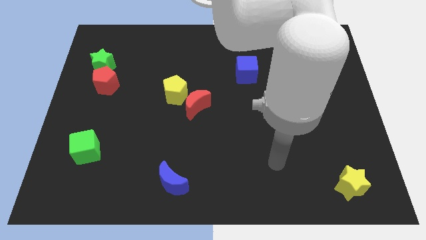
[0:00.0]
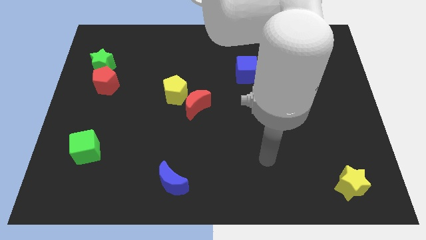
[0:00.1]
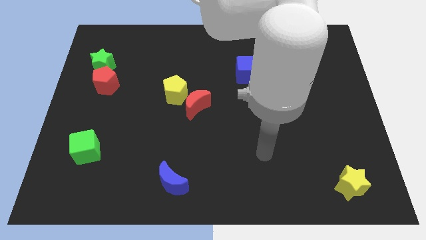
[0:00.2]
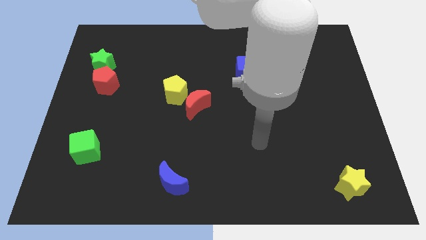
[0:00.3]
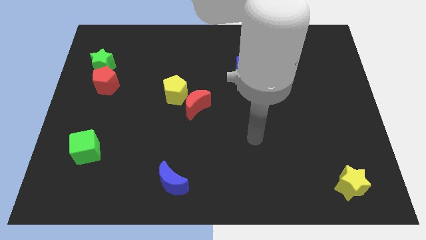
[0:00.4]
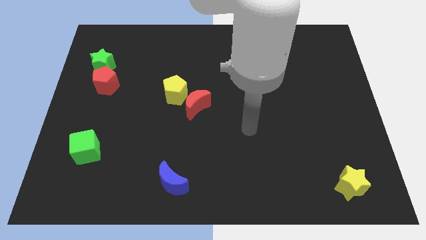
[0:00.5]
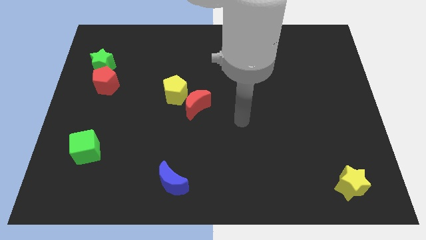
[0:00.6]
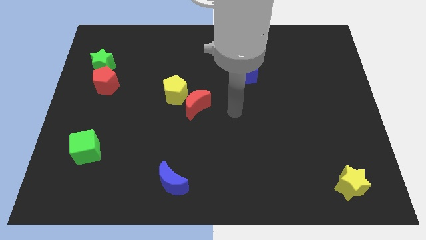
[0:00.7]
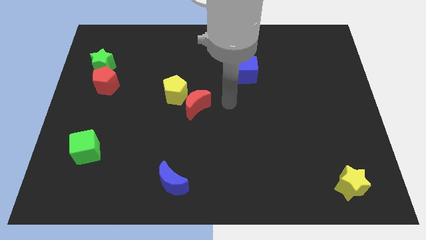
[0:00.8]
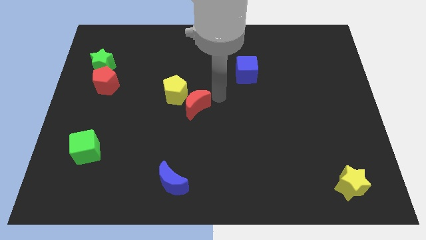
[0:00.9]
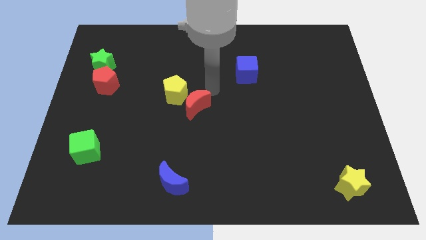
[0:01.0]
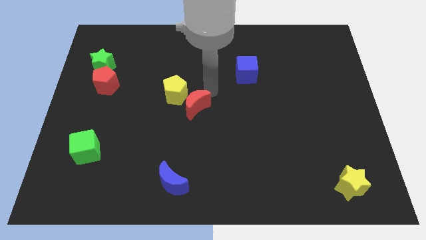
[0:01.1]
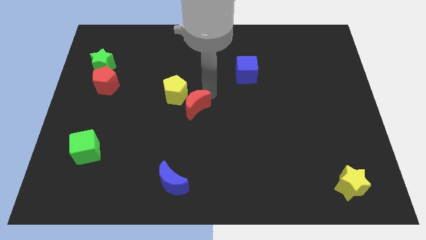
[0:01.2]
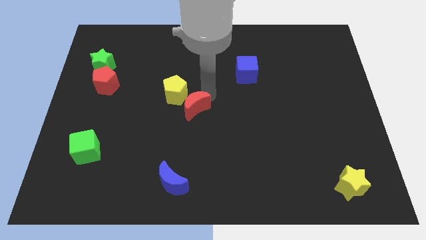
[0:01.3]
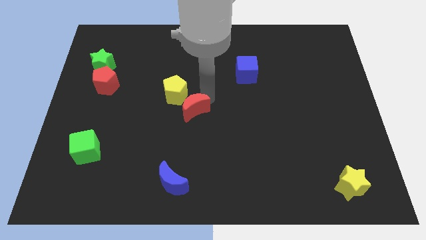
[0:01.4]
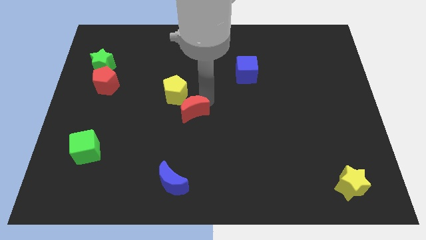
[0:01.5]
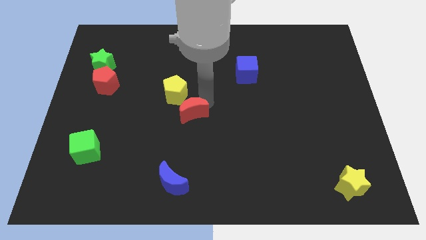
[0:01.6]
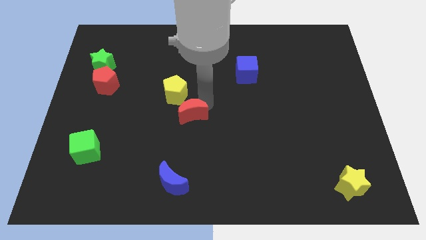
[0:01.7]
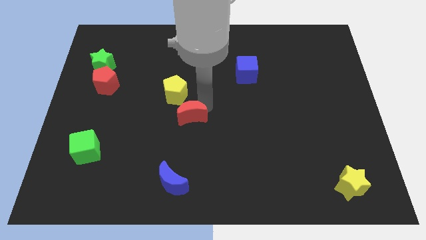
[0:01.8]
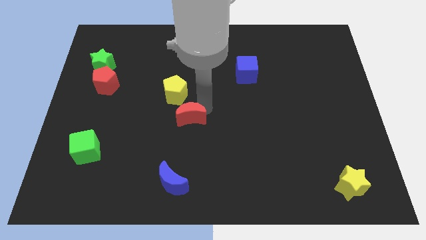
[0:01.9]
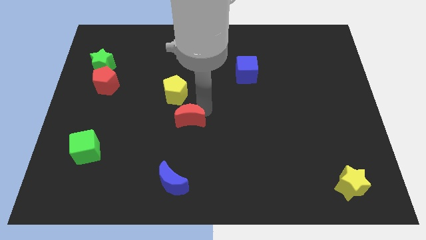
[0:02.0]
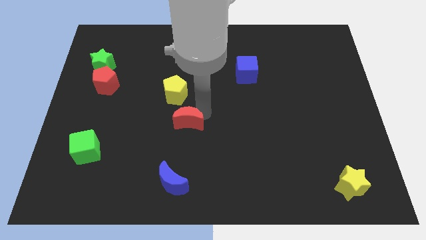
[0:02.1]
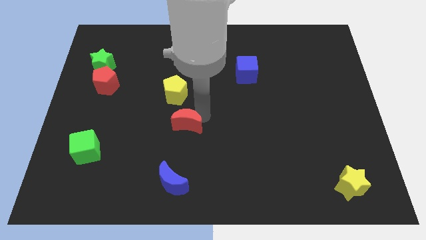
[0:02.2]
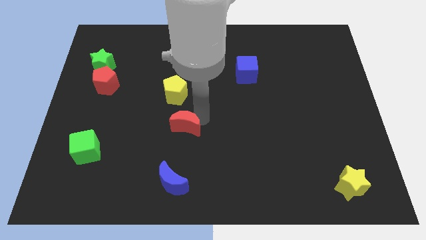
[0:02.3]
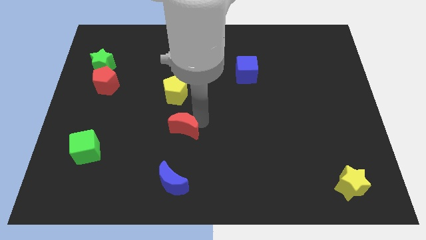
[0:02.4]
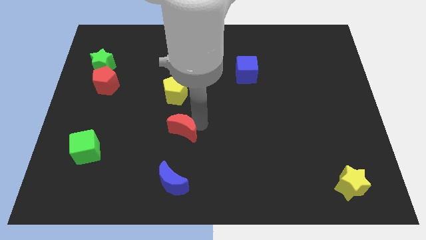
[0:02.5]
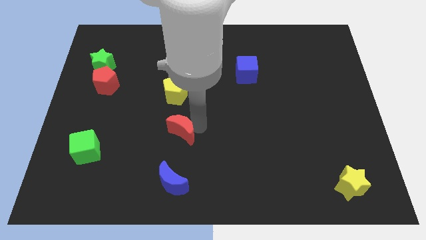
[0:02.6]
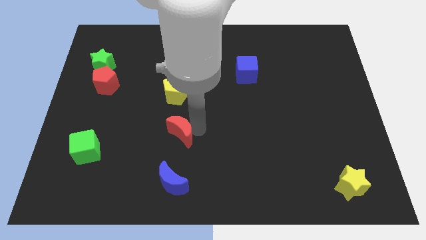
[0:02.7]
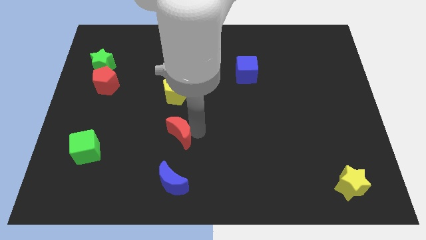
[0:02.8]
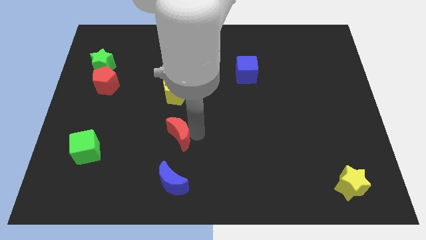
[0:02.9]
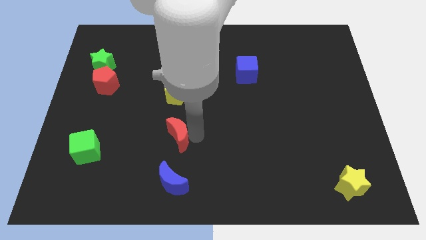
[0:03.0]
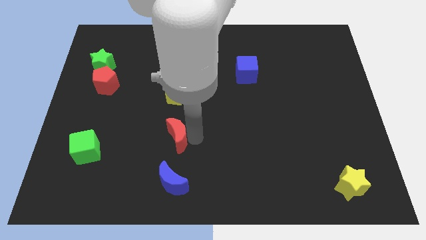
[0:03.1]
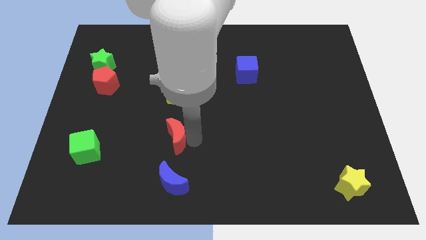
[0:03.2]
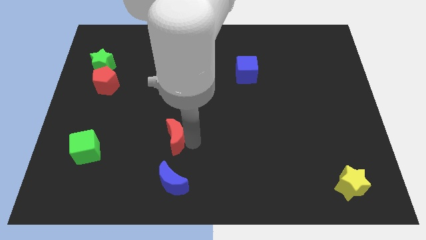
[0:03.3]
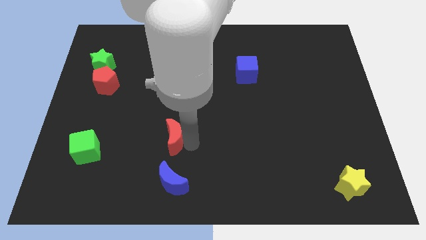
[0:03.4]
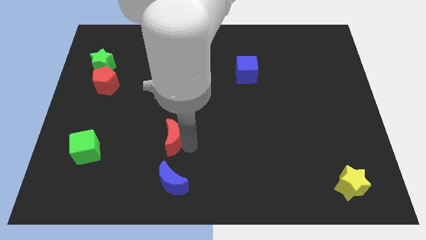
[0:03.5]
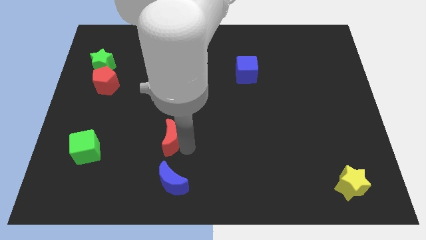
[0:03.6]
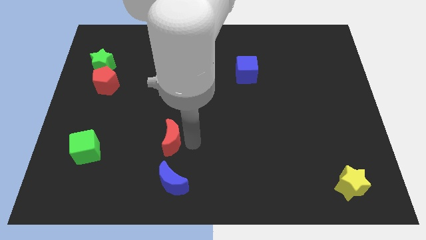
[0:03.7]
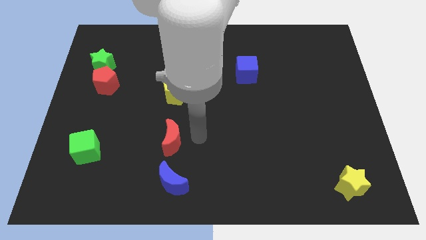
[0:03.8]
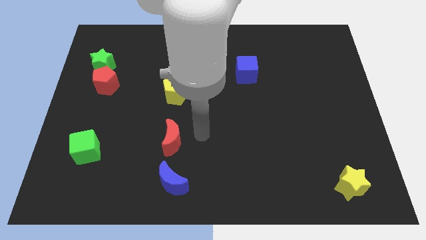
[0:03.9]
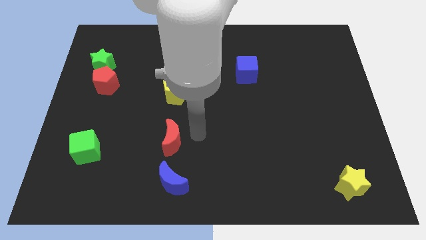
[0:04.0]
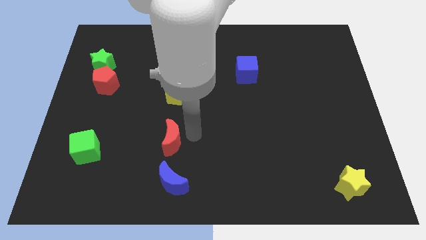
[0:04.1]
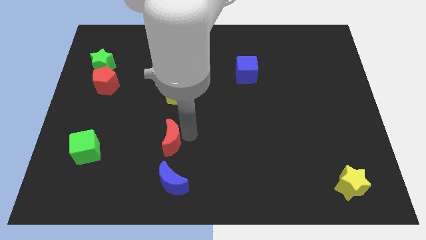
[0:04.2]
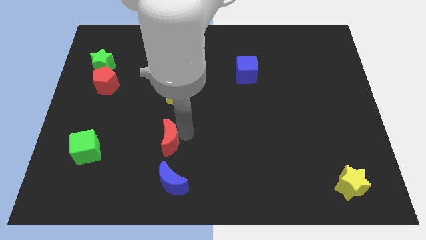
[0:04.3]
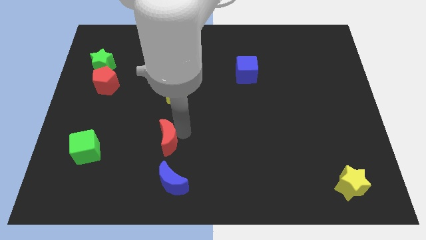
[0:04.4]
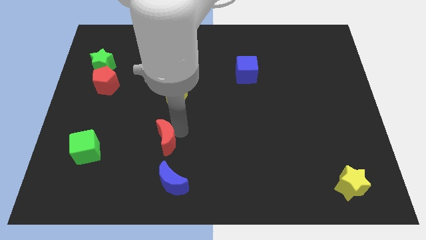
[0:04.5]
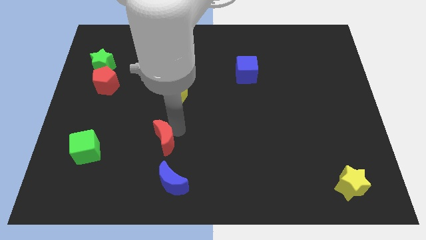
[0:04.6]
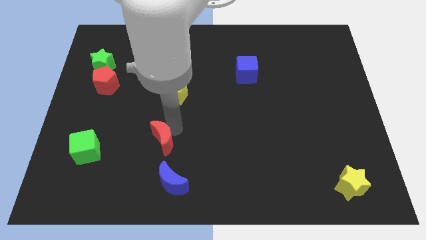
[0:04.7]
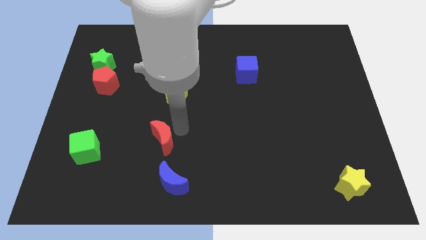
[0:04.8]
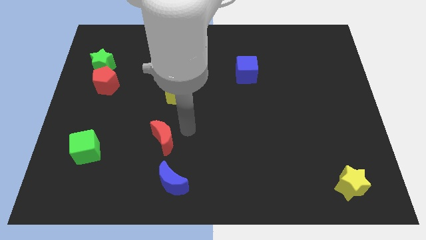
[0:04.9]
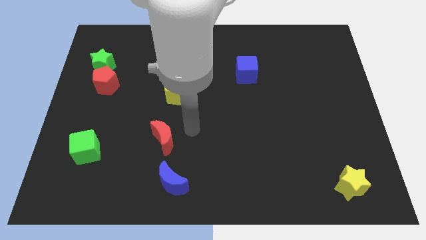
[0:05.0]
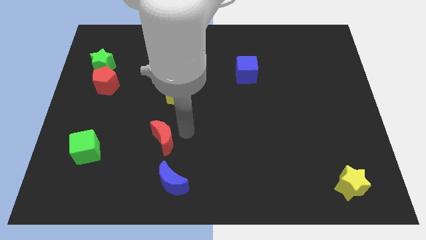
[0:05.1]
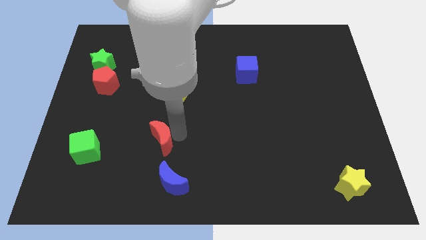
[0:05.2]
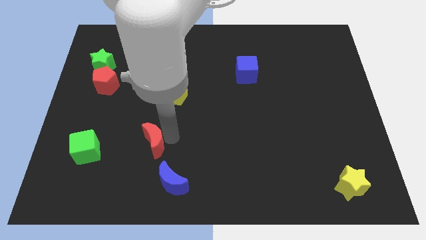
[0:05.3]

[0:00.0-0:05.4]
slide the red moon to the right side of the green cube

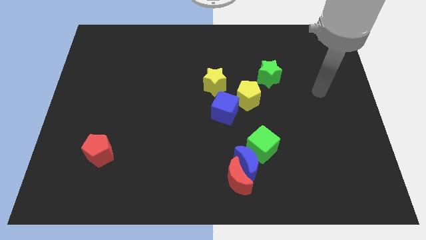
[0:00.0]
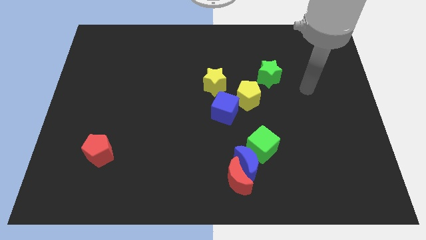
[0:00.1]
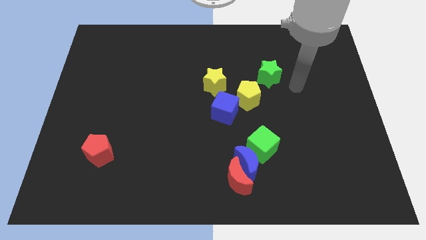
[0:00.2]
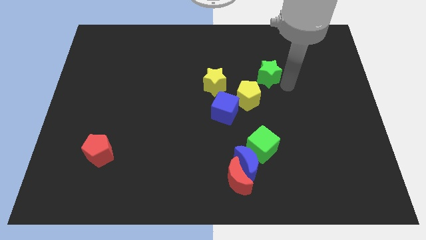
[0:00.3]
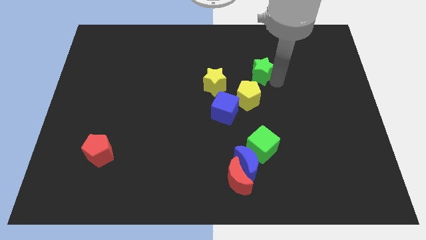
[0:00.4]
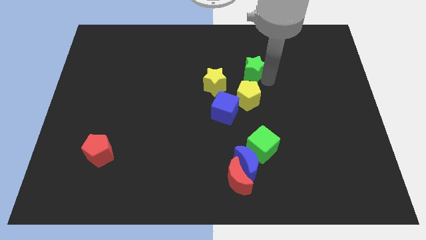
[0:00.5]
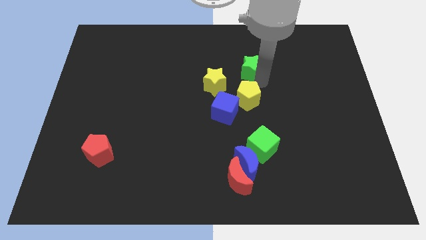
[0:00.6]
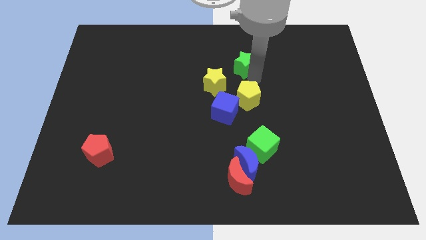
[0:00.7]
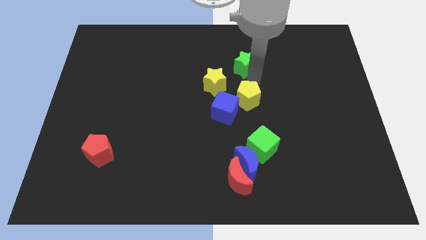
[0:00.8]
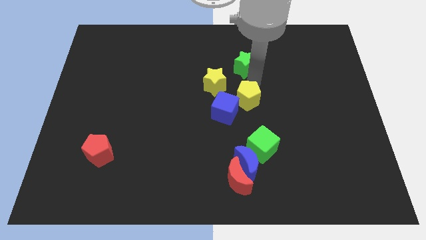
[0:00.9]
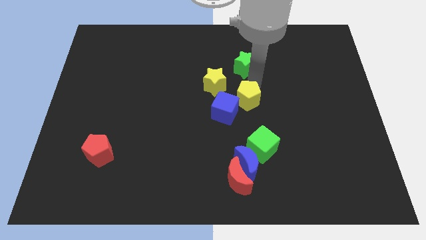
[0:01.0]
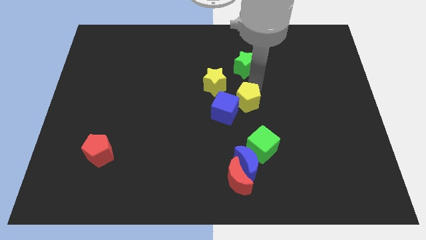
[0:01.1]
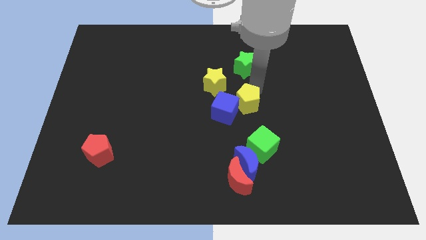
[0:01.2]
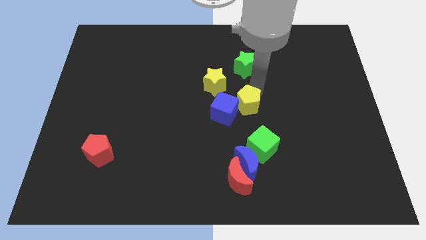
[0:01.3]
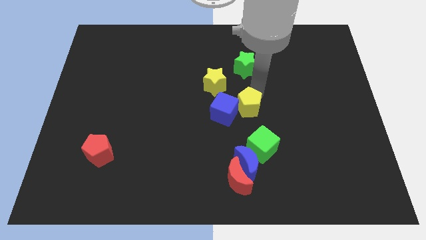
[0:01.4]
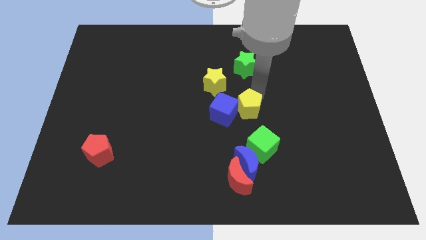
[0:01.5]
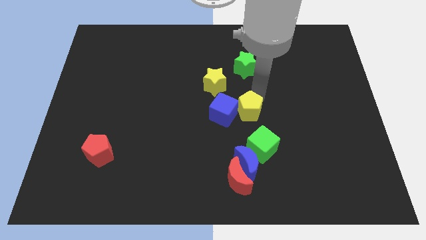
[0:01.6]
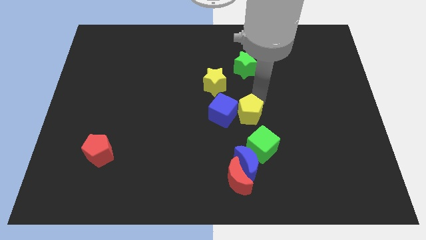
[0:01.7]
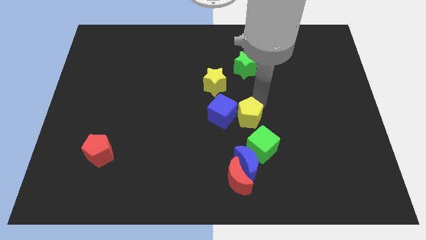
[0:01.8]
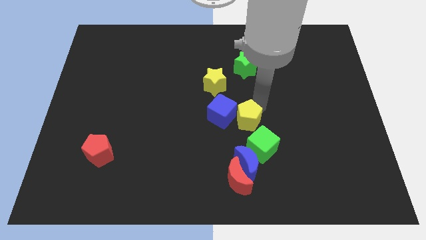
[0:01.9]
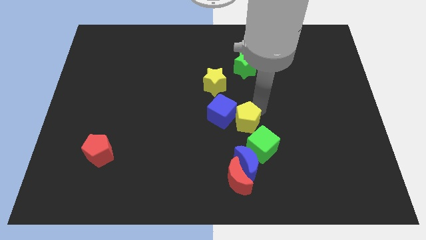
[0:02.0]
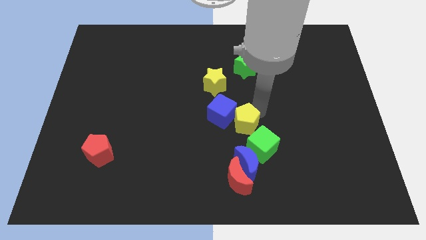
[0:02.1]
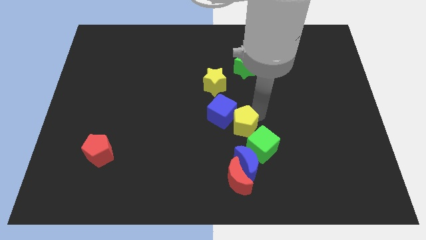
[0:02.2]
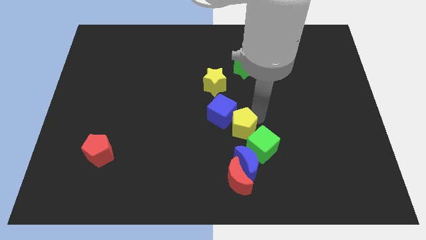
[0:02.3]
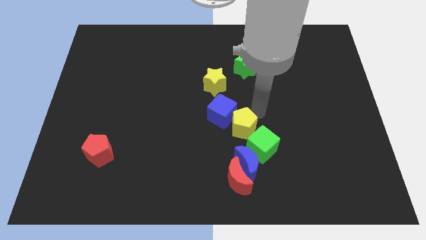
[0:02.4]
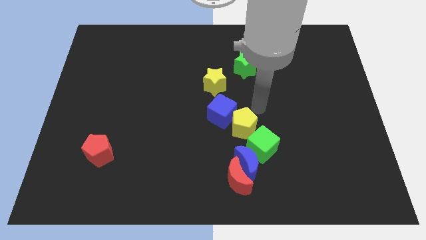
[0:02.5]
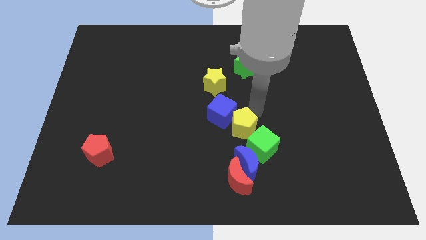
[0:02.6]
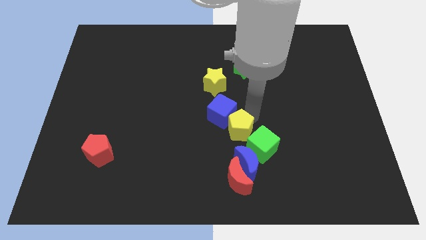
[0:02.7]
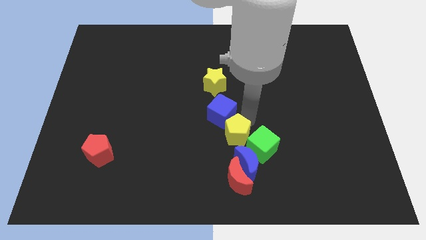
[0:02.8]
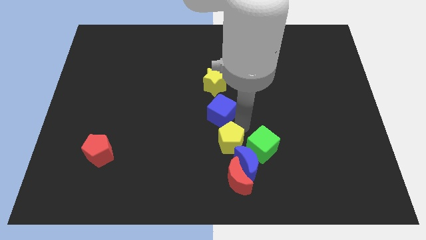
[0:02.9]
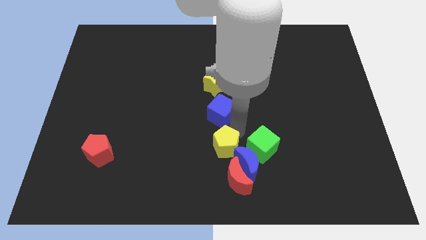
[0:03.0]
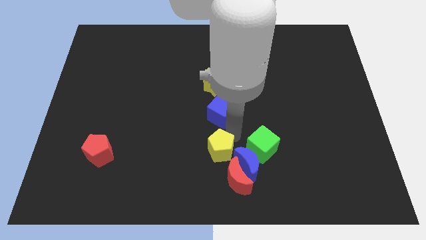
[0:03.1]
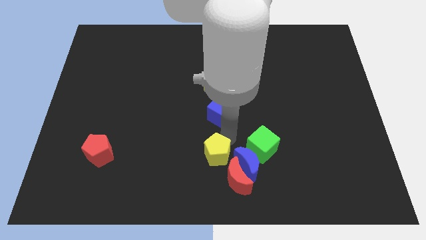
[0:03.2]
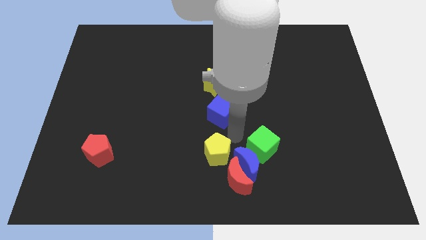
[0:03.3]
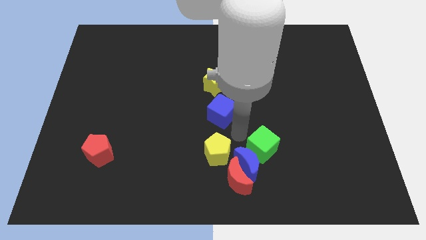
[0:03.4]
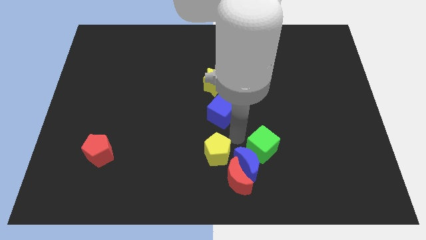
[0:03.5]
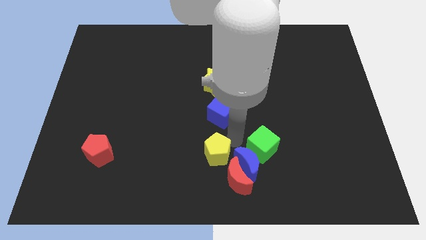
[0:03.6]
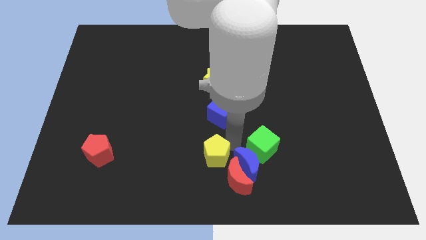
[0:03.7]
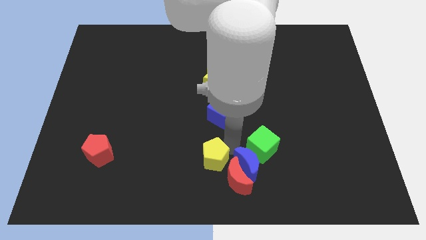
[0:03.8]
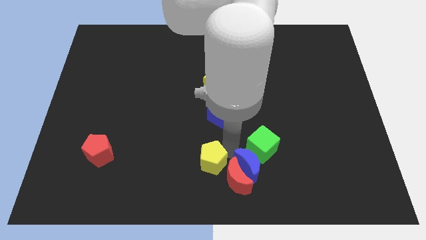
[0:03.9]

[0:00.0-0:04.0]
slide the yellow pentagon to the left side of the red moon
